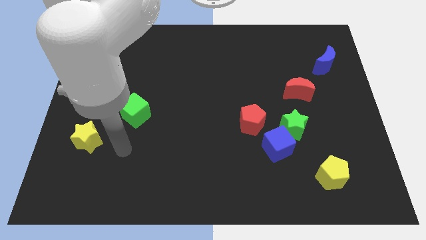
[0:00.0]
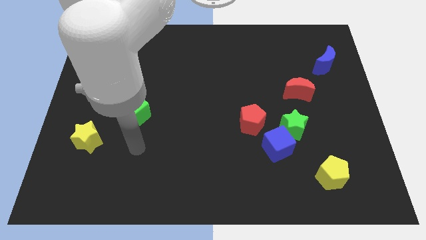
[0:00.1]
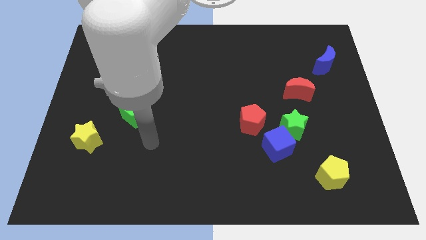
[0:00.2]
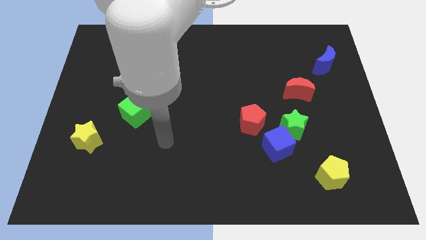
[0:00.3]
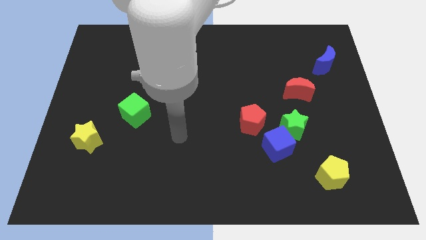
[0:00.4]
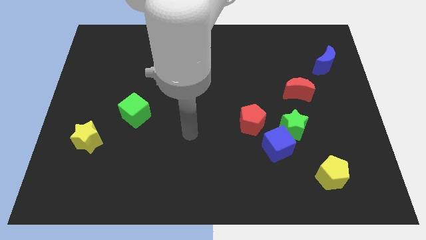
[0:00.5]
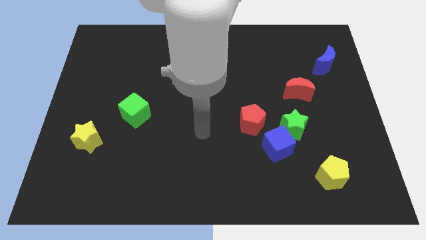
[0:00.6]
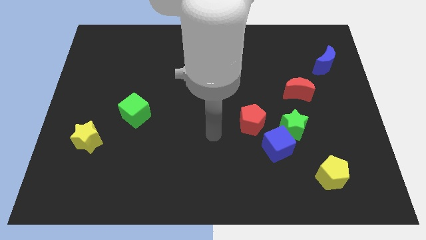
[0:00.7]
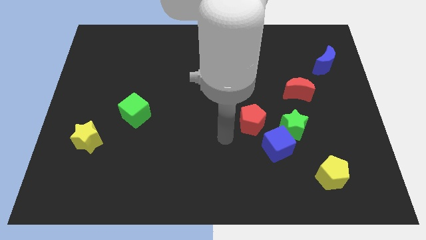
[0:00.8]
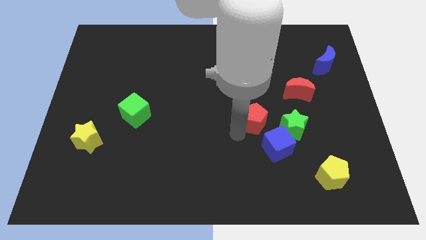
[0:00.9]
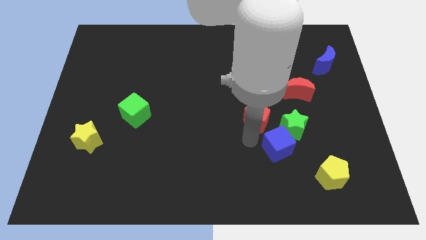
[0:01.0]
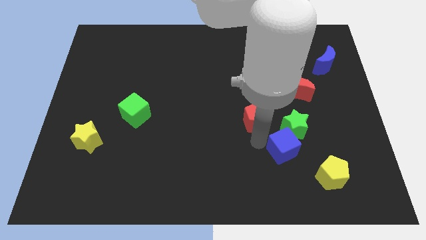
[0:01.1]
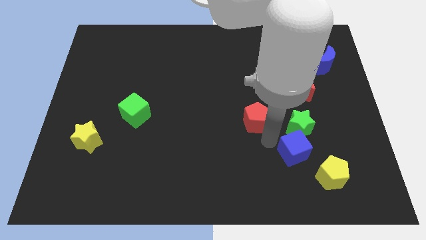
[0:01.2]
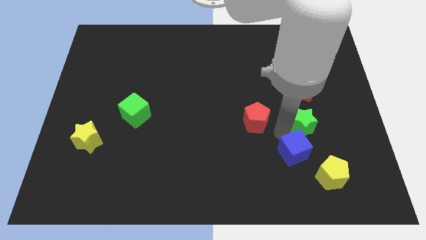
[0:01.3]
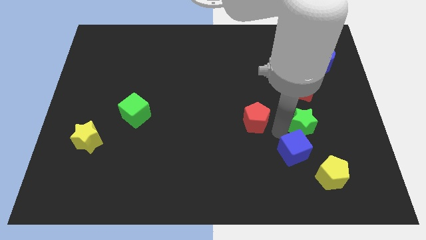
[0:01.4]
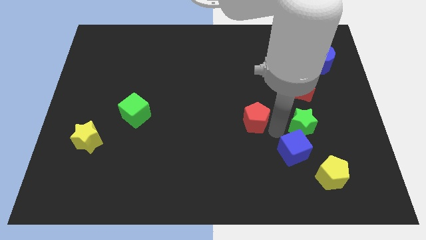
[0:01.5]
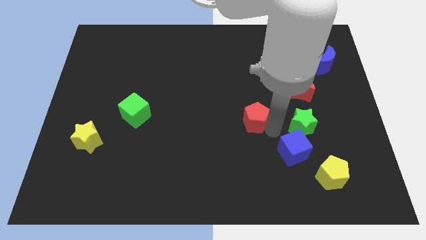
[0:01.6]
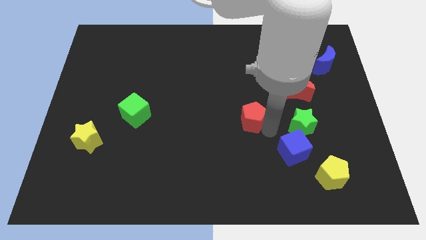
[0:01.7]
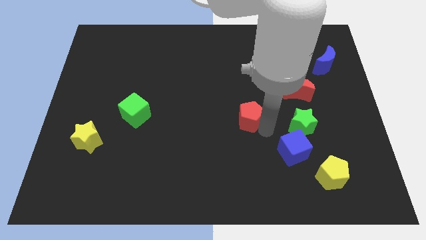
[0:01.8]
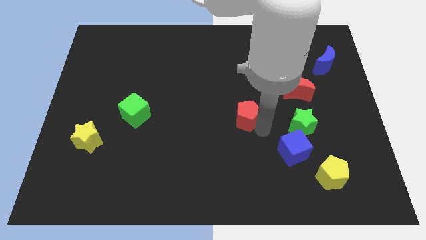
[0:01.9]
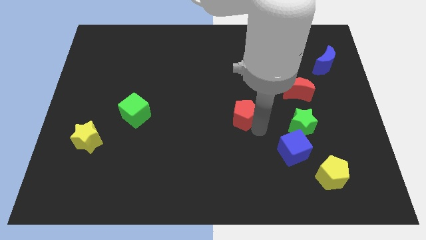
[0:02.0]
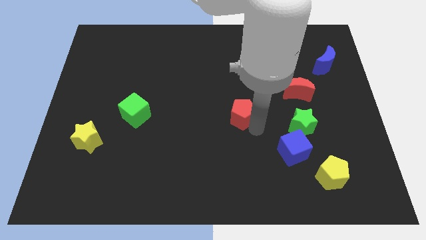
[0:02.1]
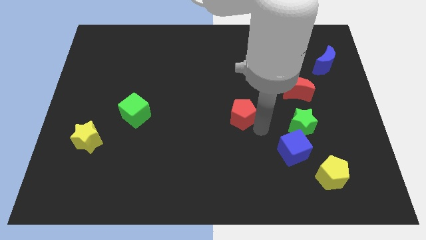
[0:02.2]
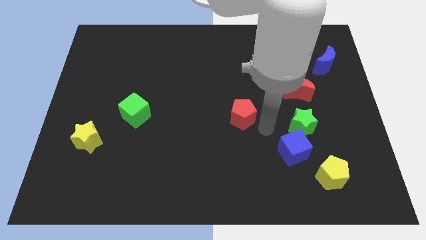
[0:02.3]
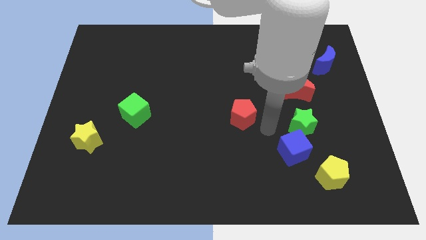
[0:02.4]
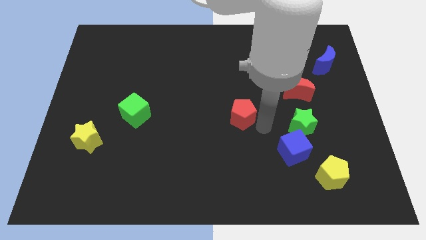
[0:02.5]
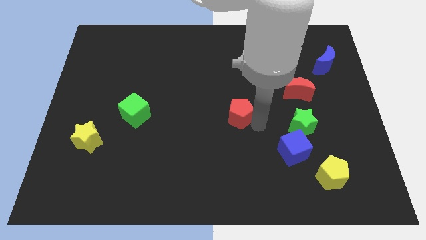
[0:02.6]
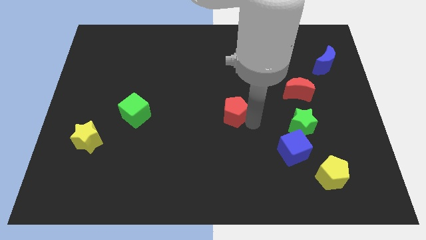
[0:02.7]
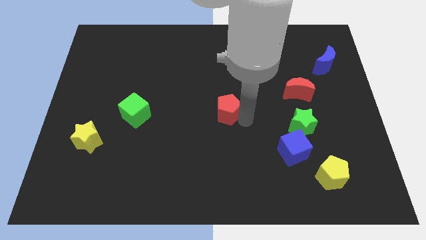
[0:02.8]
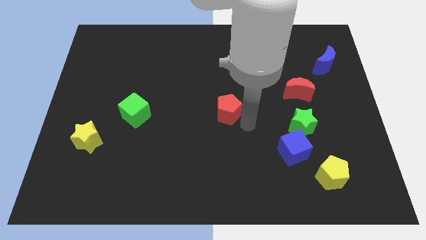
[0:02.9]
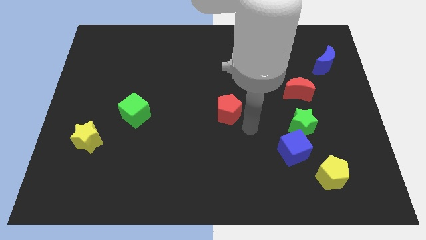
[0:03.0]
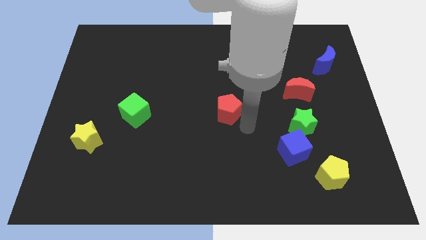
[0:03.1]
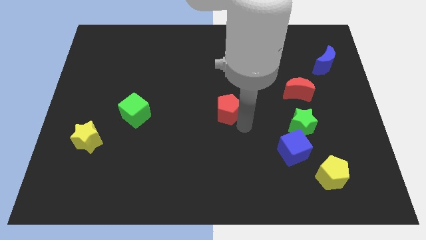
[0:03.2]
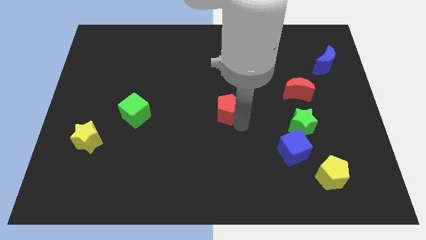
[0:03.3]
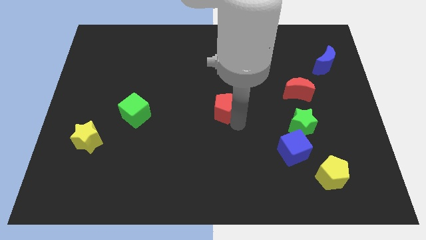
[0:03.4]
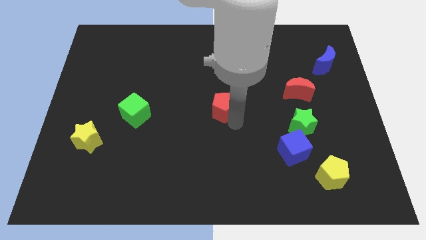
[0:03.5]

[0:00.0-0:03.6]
move the red pentagon slightly upwards and then left

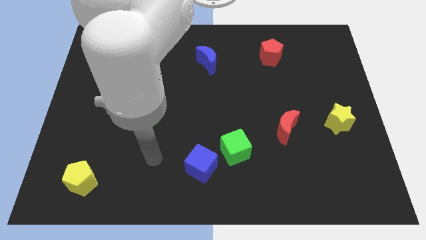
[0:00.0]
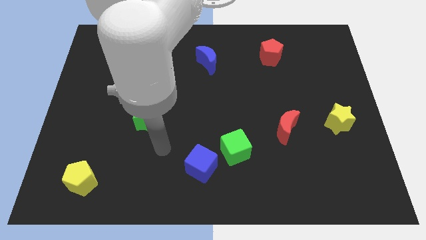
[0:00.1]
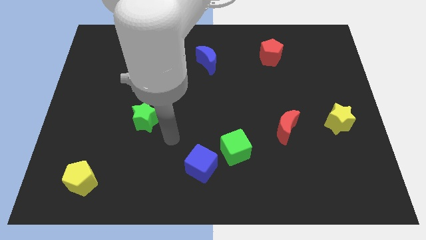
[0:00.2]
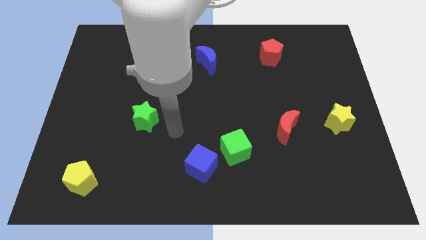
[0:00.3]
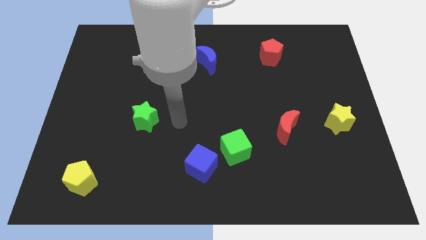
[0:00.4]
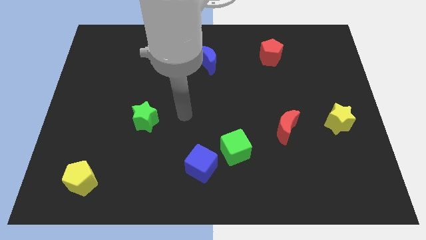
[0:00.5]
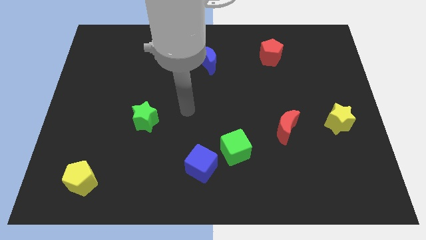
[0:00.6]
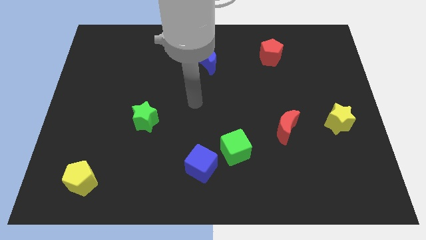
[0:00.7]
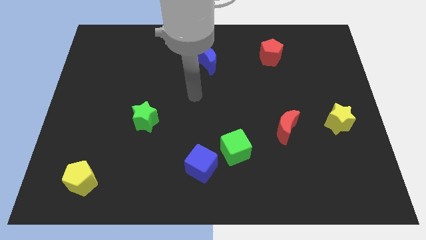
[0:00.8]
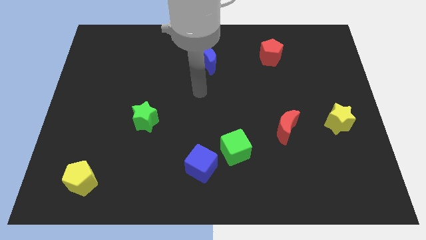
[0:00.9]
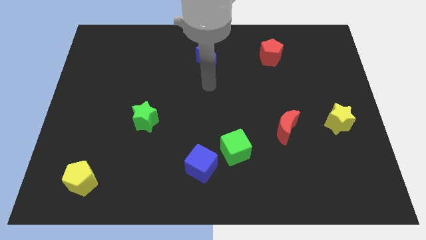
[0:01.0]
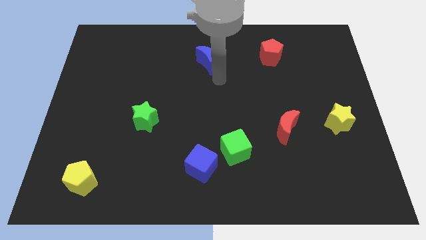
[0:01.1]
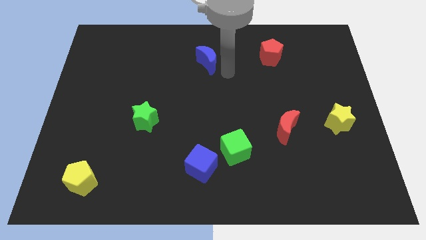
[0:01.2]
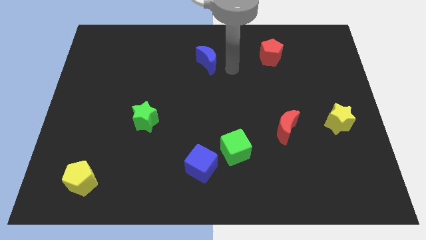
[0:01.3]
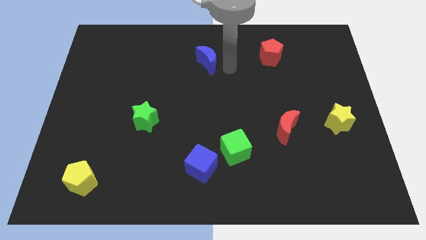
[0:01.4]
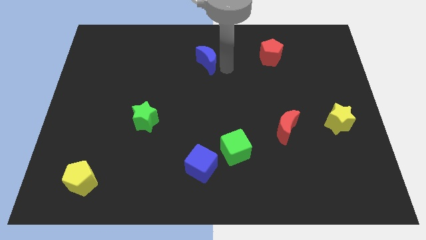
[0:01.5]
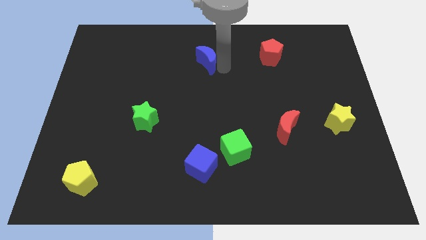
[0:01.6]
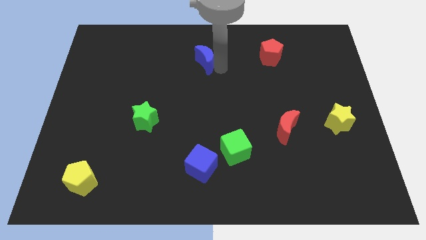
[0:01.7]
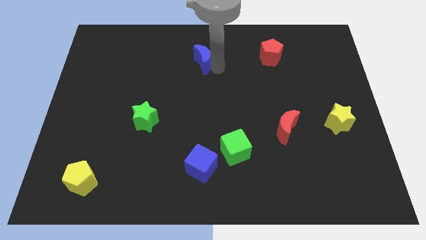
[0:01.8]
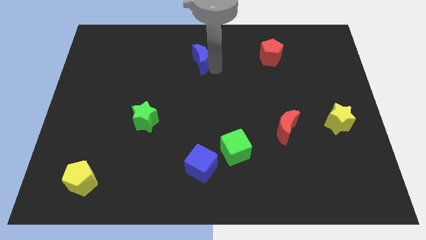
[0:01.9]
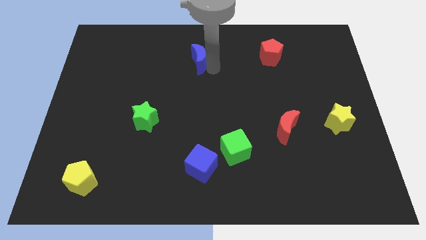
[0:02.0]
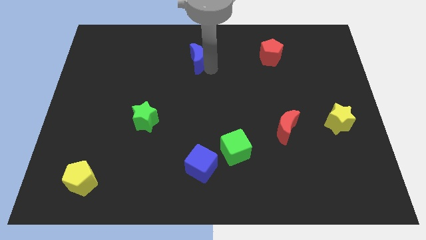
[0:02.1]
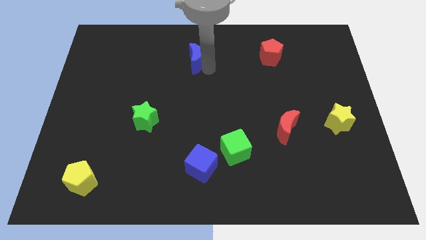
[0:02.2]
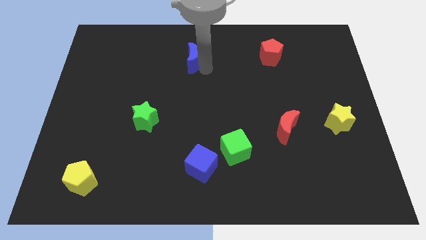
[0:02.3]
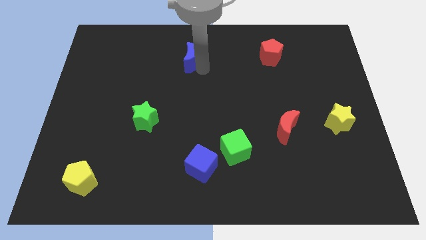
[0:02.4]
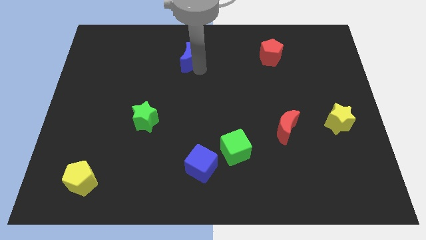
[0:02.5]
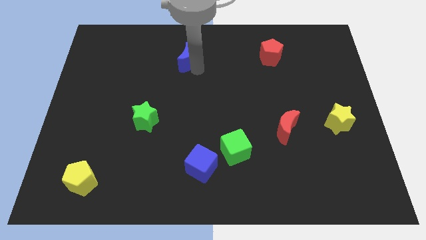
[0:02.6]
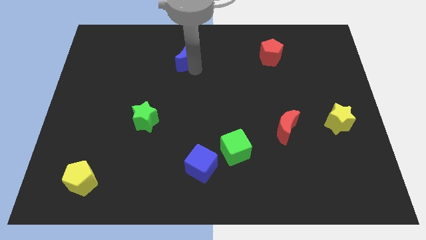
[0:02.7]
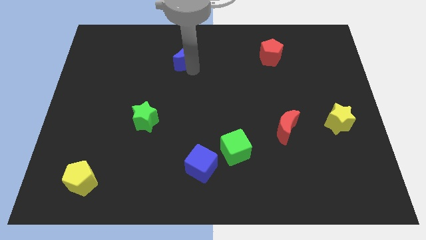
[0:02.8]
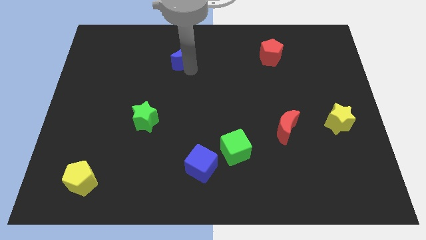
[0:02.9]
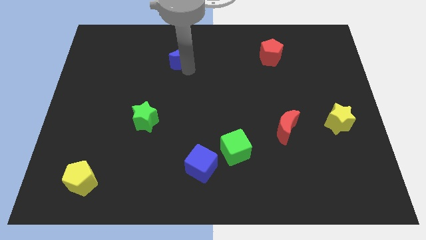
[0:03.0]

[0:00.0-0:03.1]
move the blue moon somewhat to the left

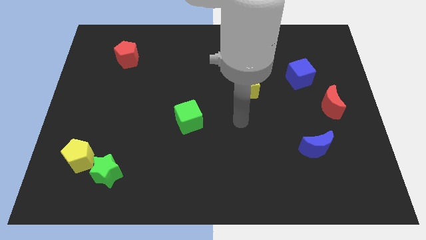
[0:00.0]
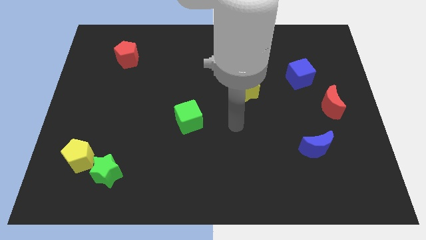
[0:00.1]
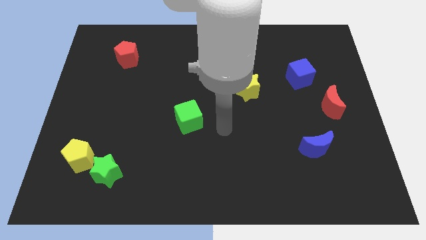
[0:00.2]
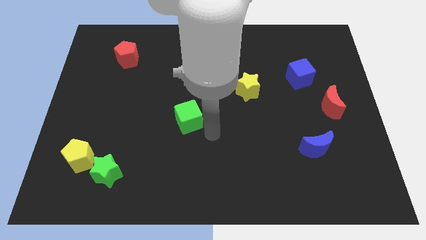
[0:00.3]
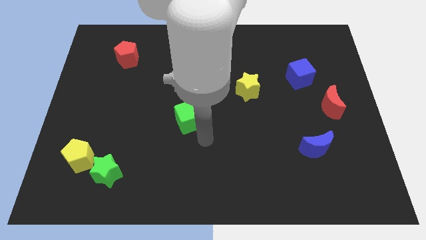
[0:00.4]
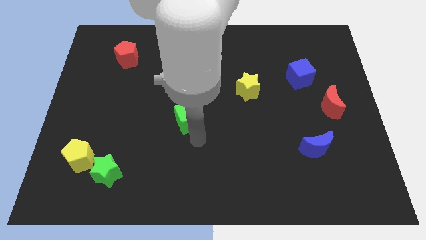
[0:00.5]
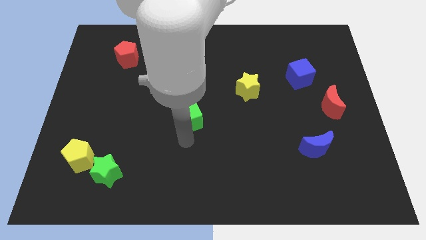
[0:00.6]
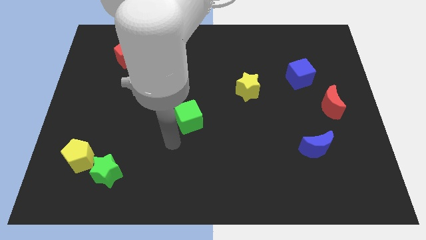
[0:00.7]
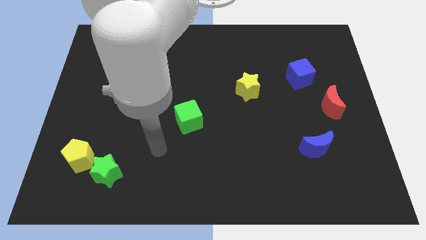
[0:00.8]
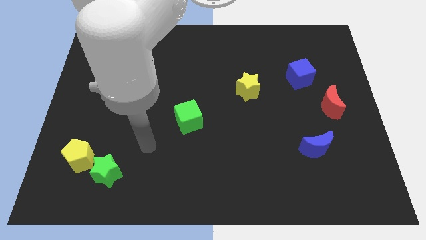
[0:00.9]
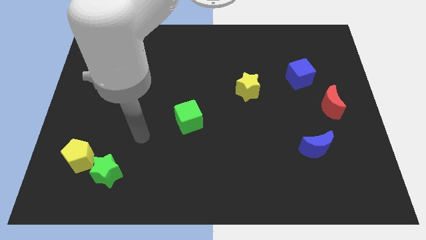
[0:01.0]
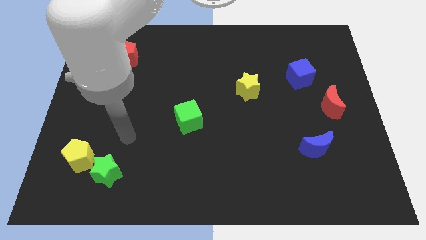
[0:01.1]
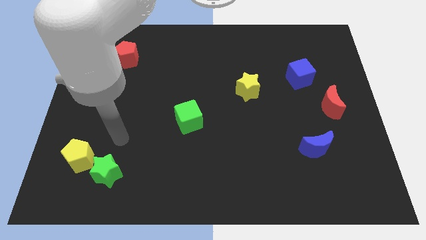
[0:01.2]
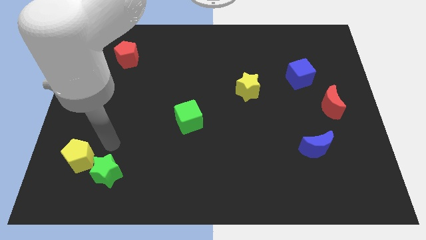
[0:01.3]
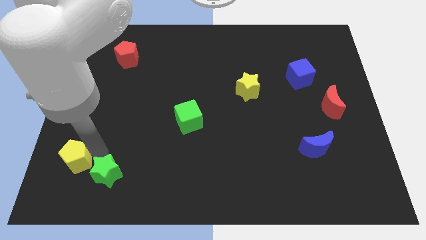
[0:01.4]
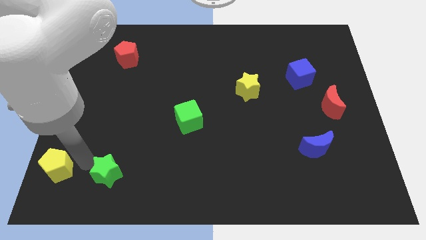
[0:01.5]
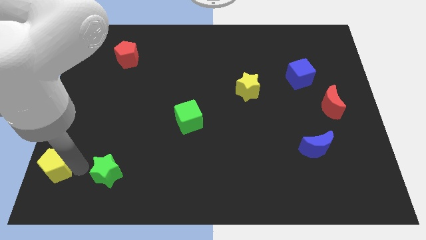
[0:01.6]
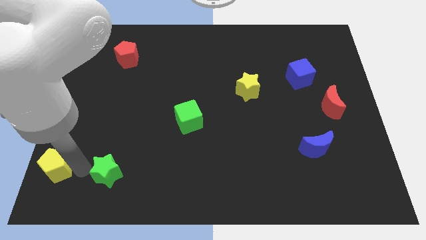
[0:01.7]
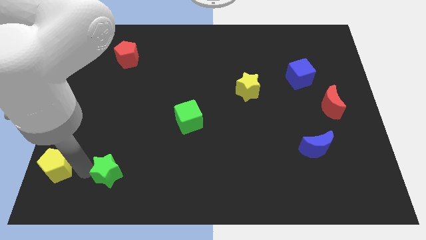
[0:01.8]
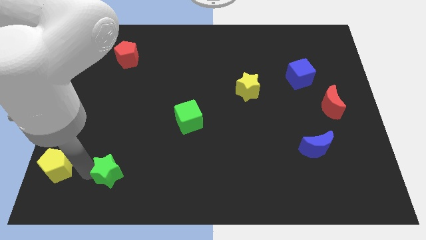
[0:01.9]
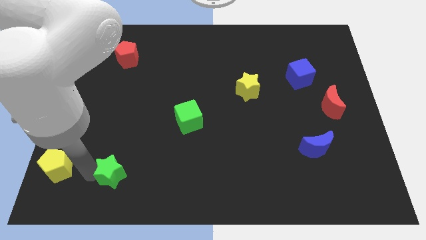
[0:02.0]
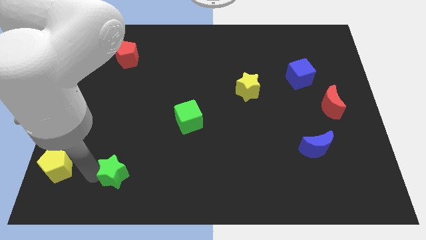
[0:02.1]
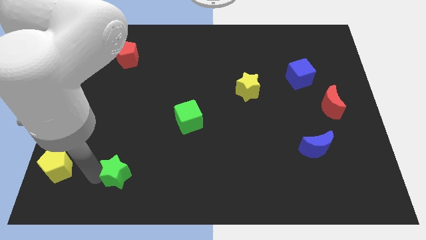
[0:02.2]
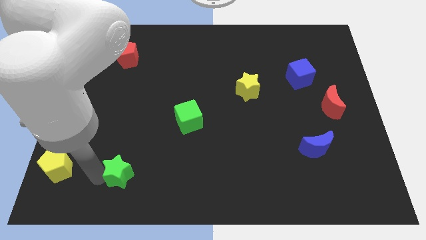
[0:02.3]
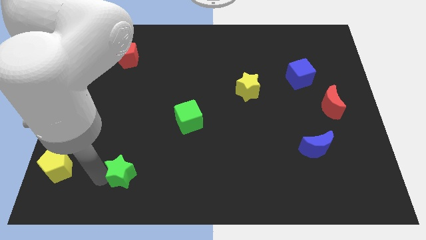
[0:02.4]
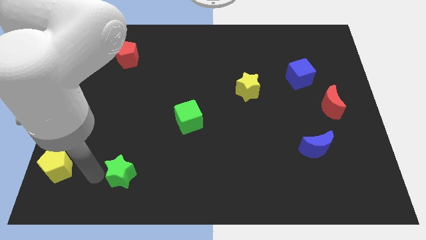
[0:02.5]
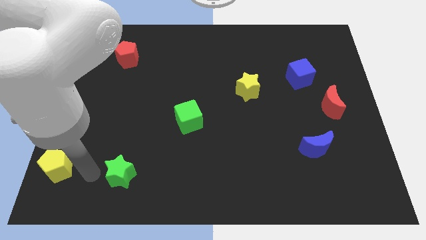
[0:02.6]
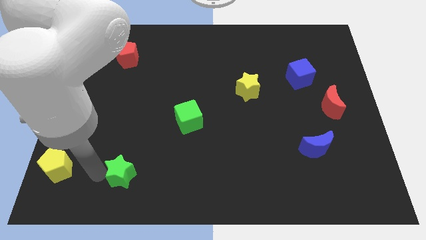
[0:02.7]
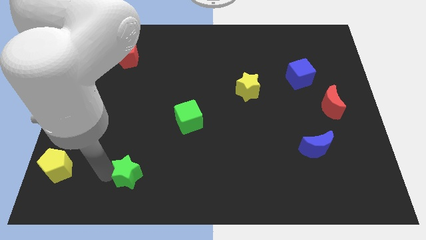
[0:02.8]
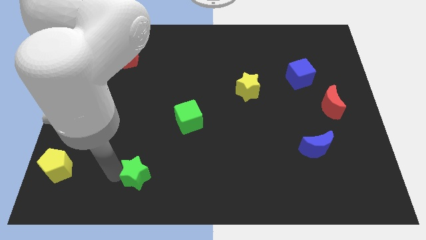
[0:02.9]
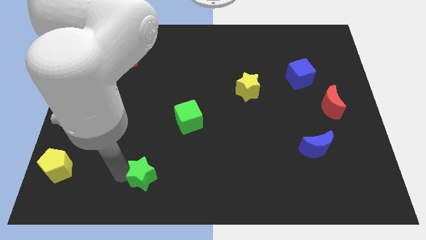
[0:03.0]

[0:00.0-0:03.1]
slightly push the green star to the right
